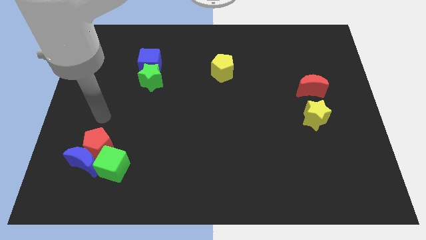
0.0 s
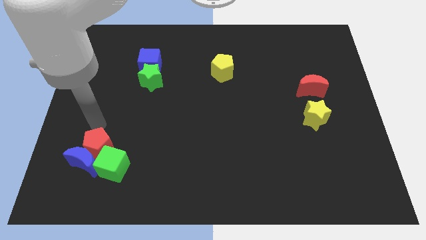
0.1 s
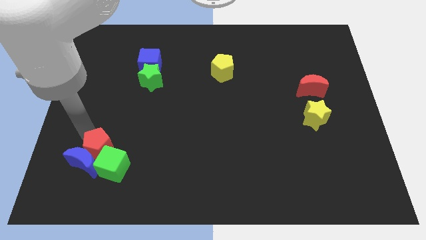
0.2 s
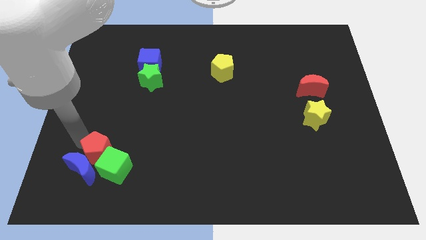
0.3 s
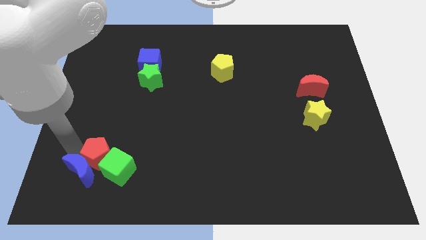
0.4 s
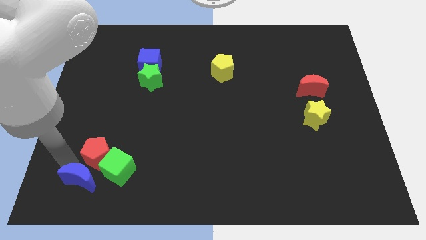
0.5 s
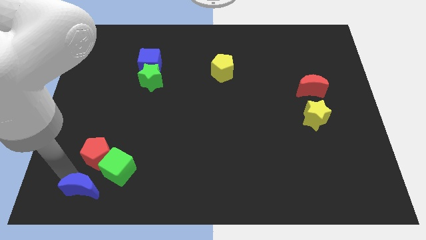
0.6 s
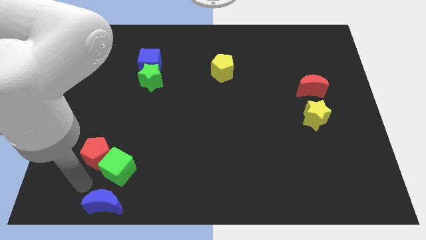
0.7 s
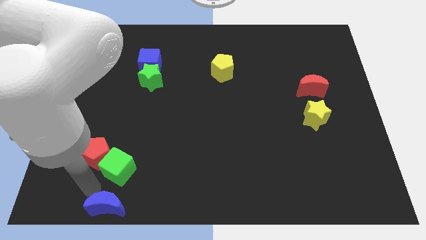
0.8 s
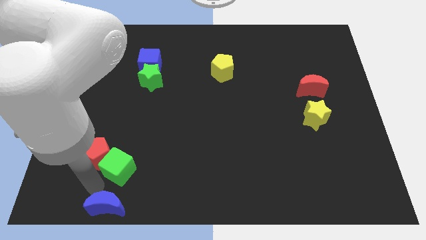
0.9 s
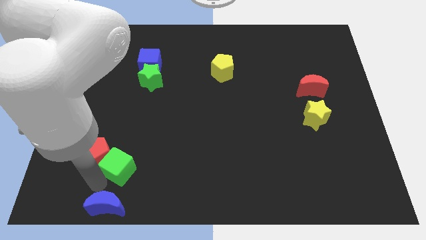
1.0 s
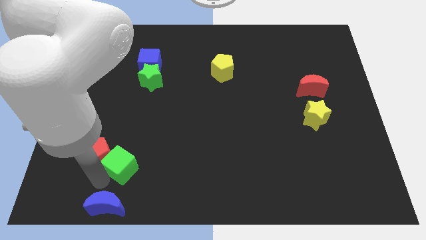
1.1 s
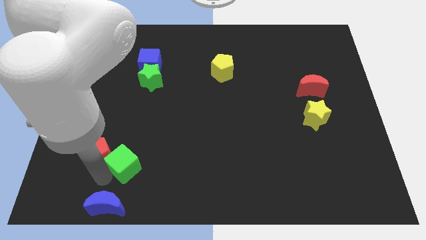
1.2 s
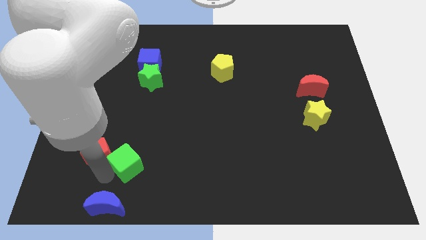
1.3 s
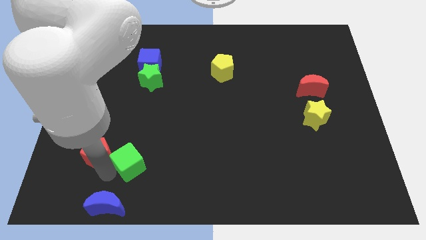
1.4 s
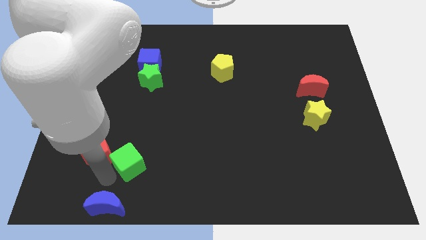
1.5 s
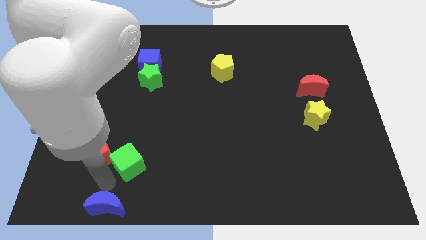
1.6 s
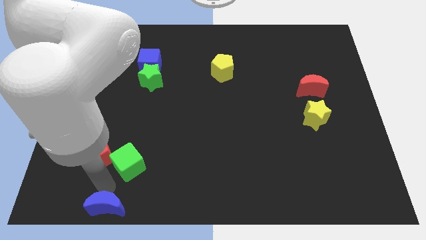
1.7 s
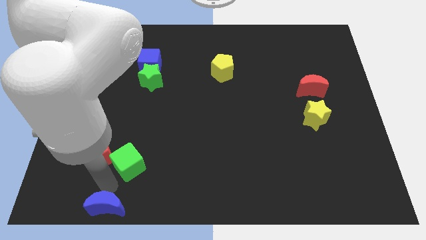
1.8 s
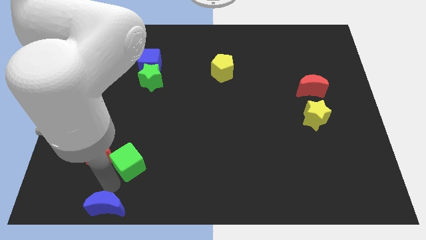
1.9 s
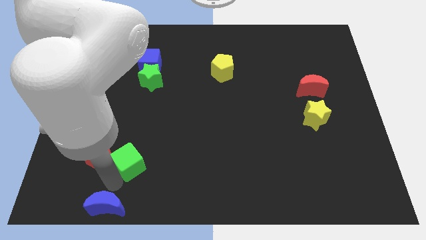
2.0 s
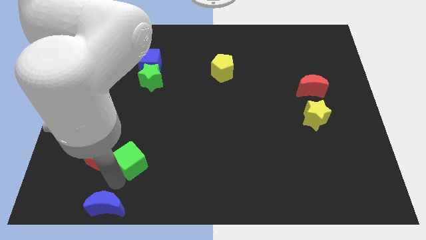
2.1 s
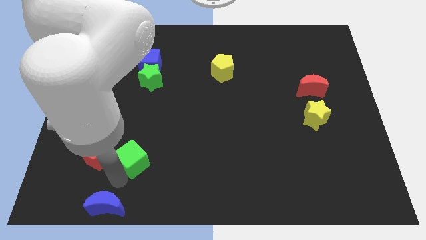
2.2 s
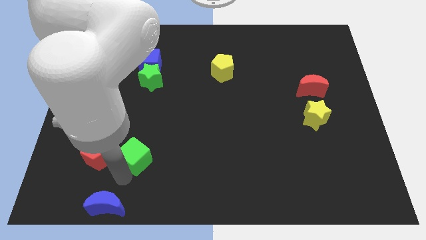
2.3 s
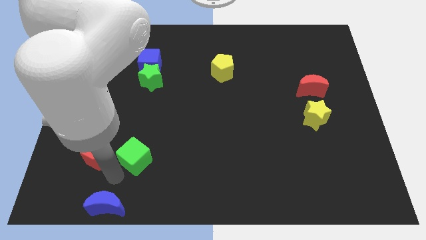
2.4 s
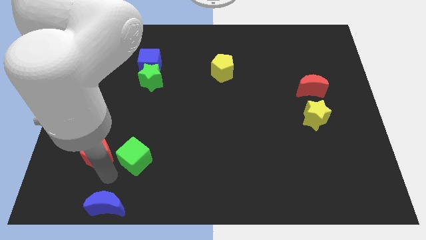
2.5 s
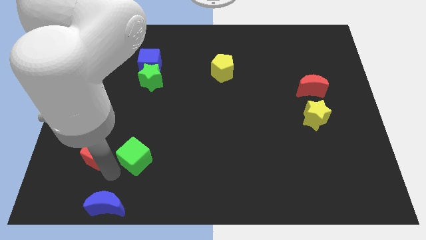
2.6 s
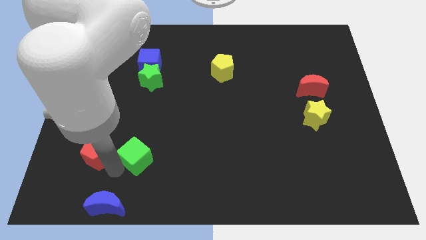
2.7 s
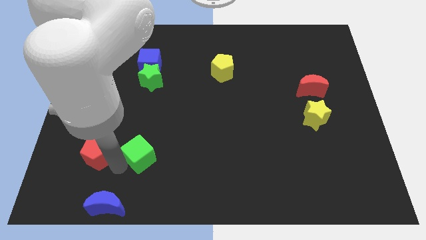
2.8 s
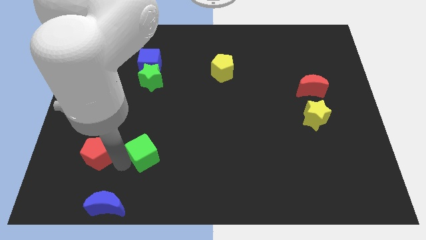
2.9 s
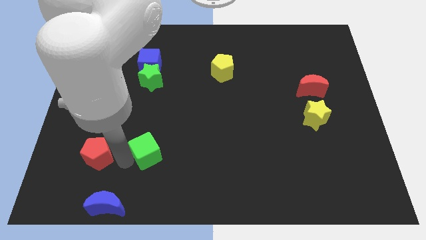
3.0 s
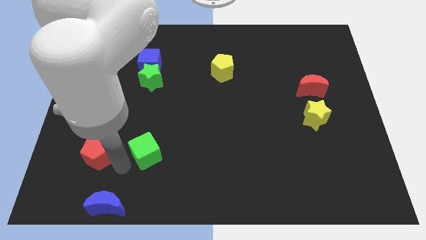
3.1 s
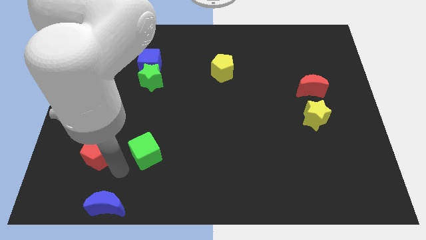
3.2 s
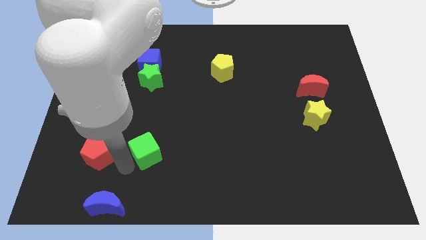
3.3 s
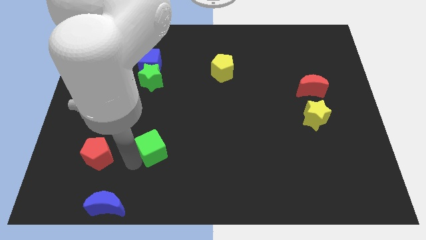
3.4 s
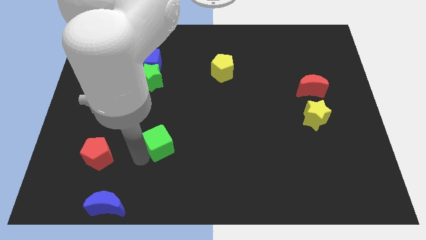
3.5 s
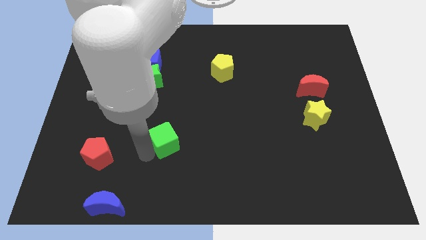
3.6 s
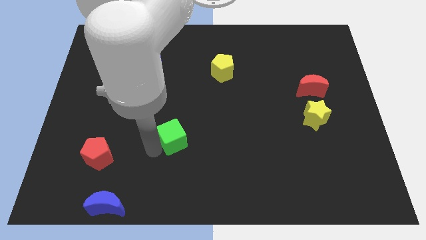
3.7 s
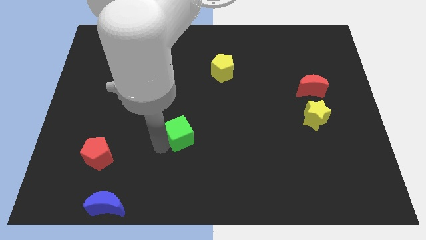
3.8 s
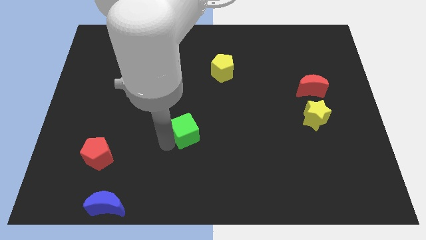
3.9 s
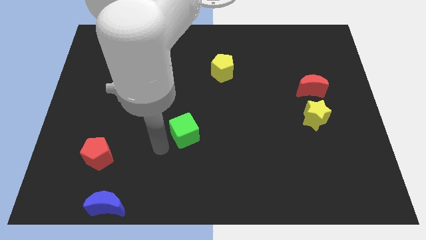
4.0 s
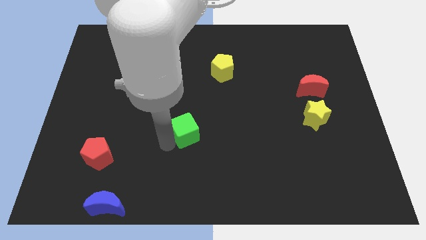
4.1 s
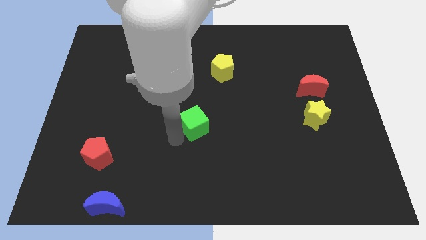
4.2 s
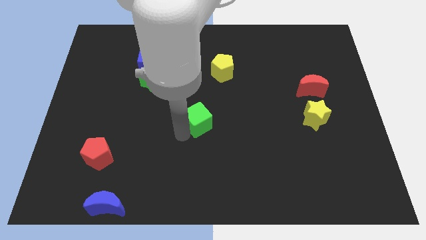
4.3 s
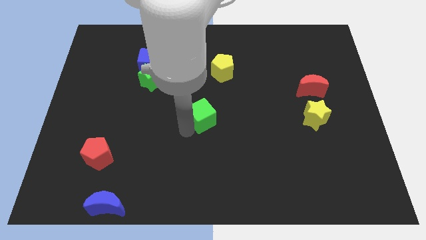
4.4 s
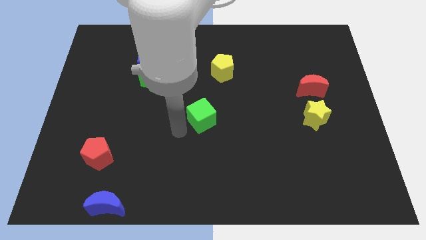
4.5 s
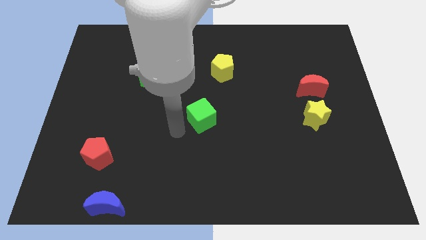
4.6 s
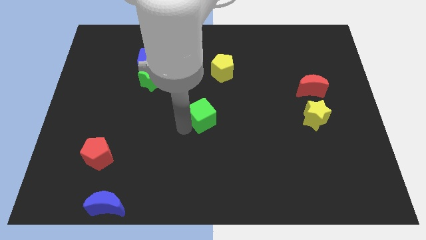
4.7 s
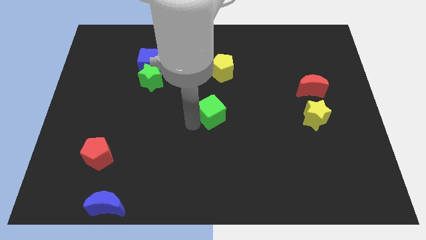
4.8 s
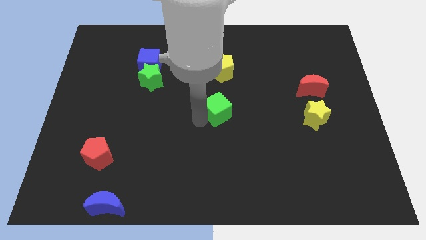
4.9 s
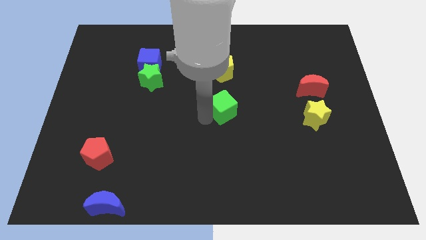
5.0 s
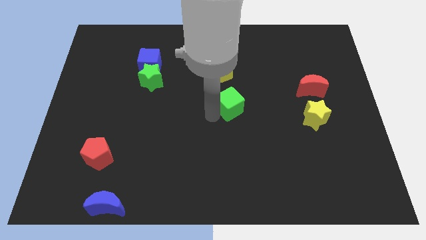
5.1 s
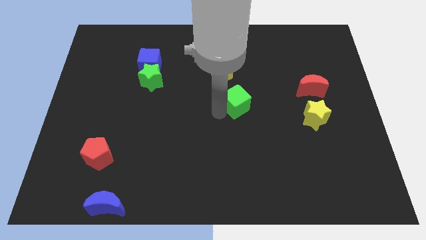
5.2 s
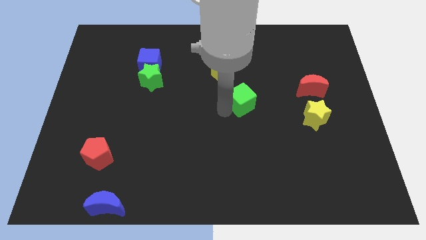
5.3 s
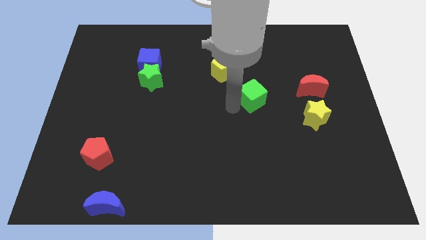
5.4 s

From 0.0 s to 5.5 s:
move the green cube just left of the red moon

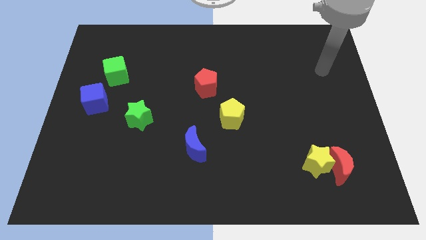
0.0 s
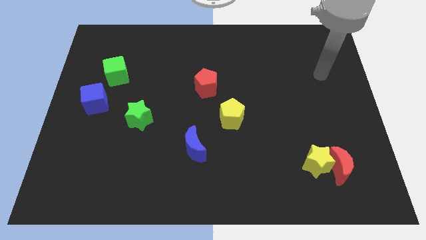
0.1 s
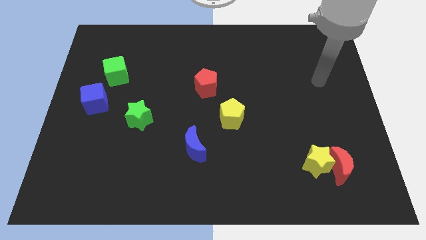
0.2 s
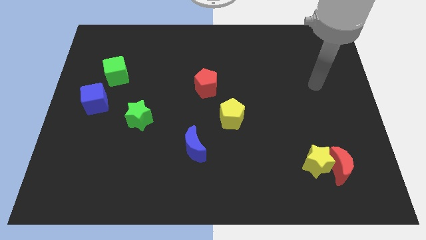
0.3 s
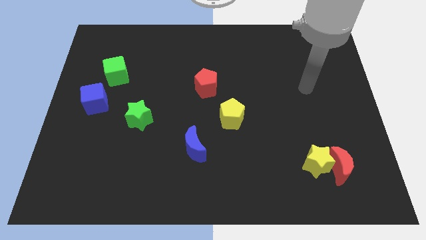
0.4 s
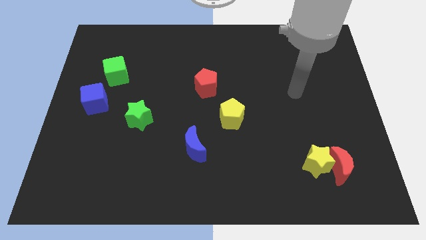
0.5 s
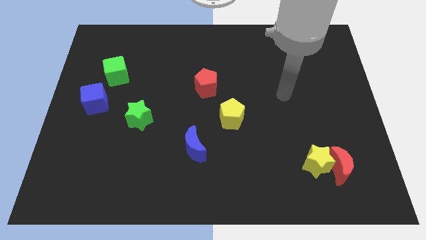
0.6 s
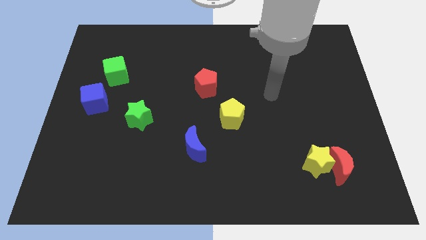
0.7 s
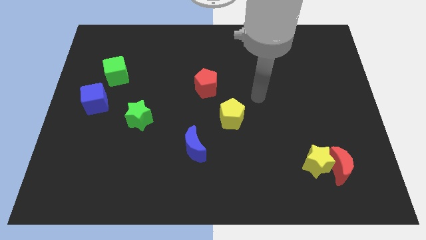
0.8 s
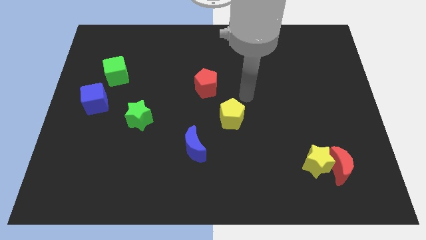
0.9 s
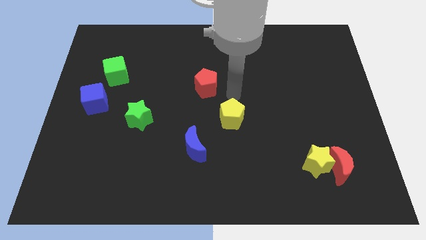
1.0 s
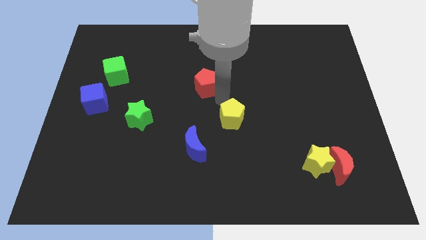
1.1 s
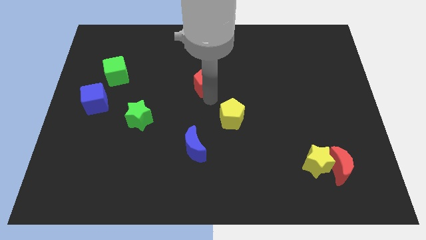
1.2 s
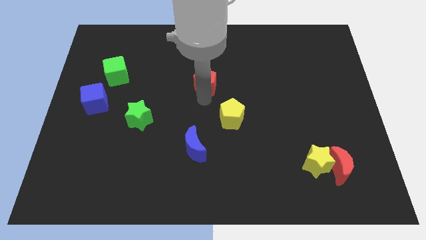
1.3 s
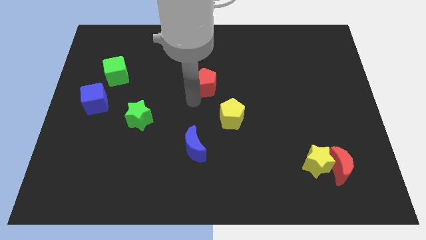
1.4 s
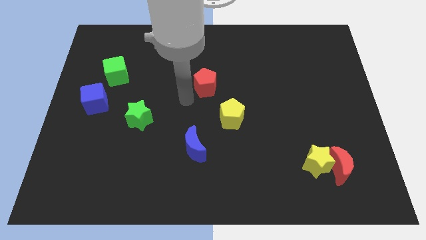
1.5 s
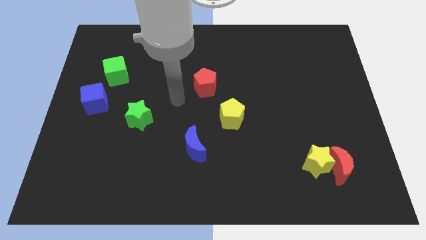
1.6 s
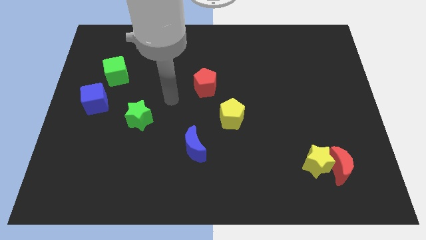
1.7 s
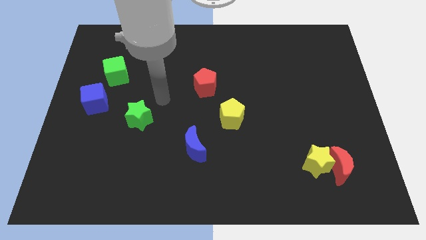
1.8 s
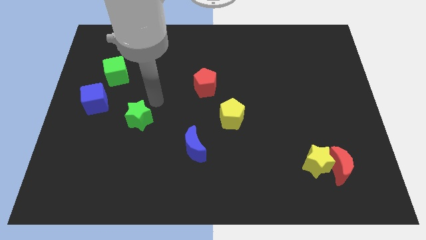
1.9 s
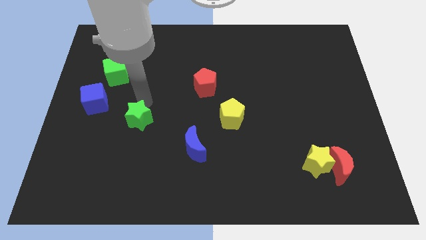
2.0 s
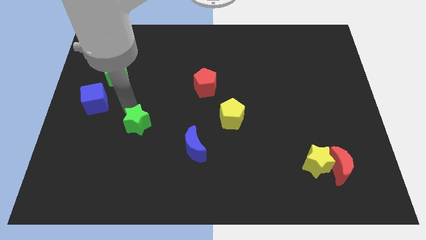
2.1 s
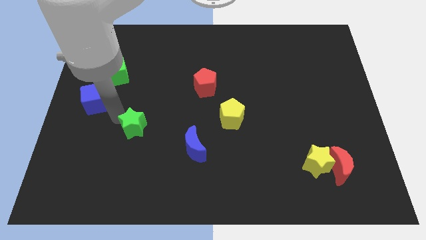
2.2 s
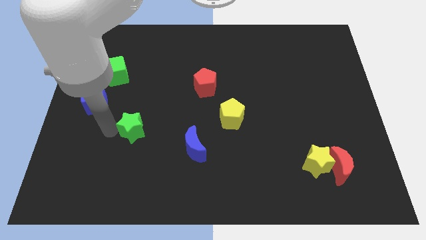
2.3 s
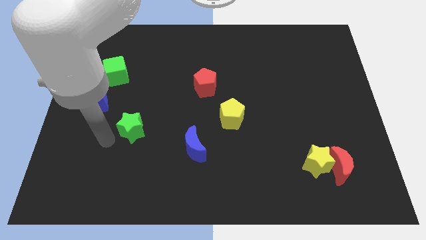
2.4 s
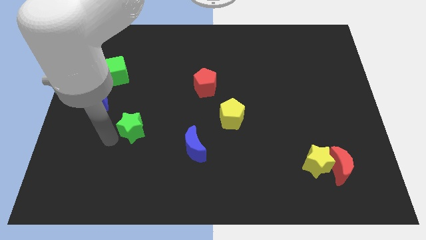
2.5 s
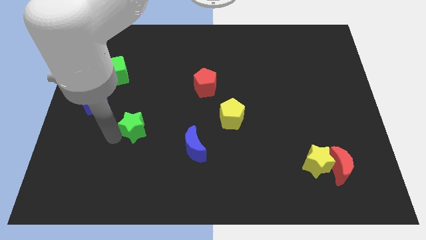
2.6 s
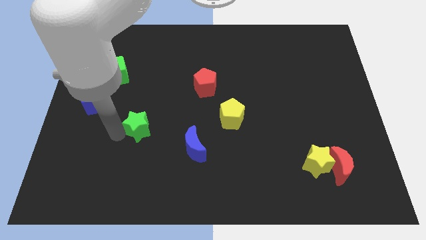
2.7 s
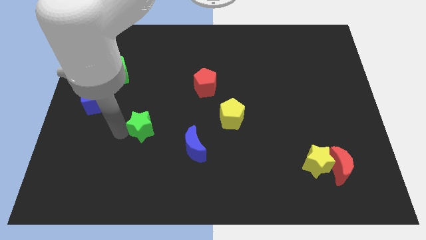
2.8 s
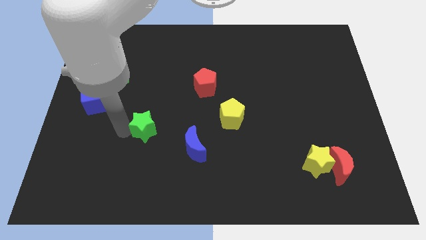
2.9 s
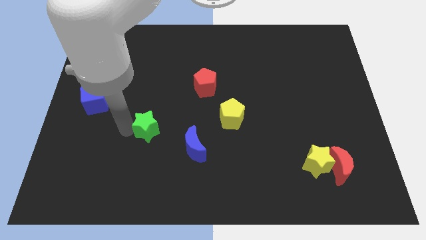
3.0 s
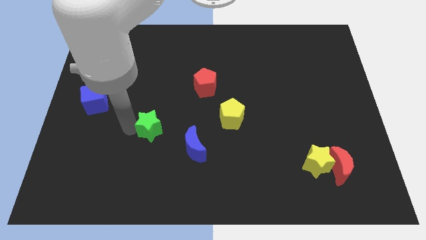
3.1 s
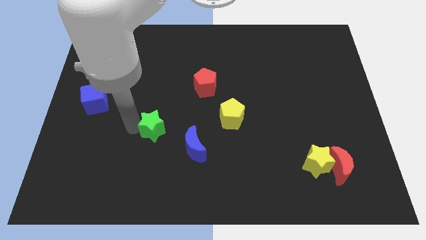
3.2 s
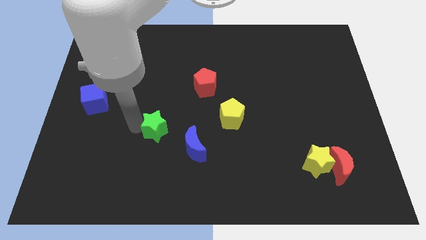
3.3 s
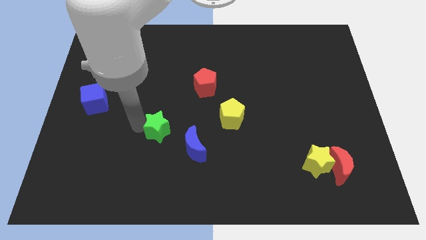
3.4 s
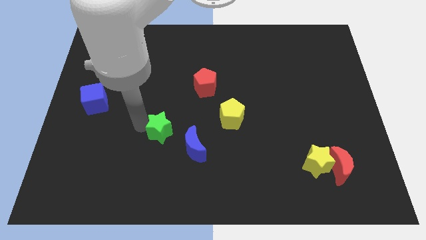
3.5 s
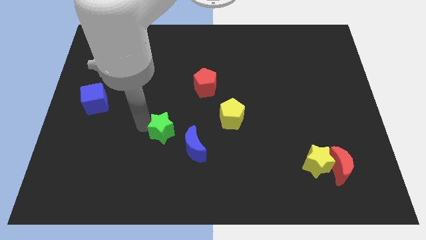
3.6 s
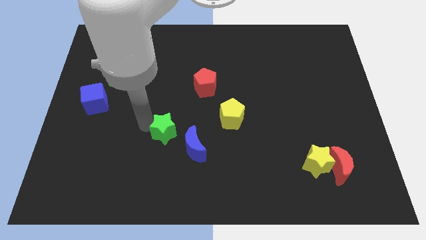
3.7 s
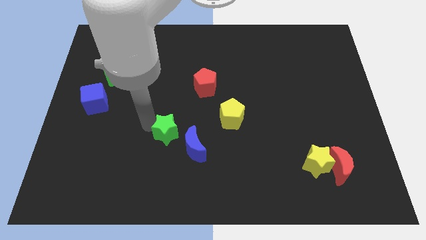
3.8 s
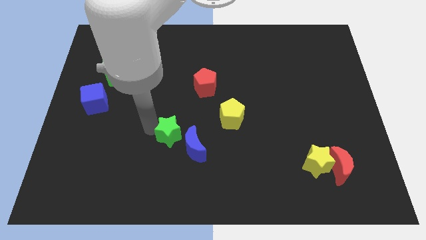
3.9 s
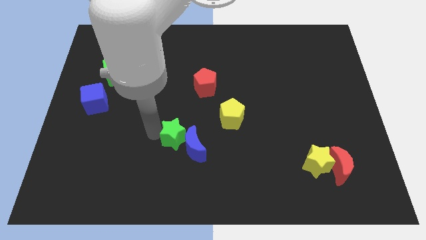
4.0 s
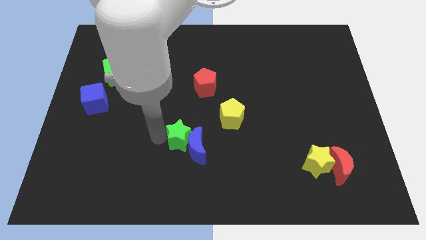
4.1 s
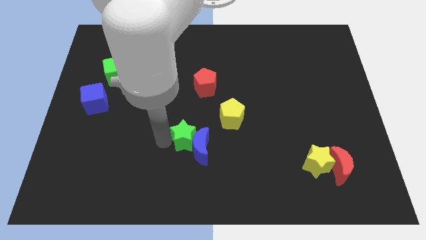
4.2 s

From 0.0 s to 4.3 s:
move the green star to the bottom left side of the yellow pentagon
